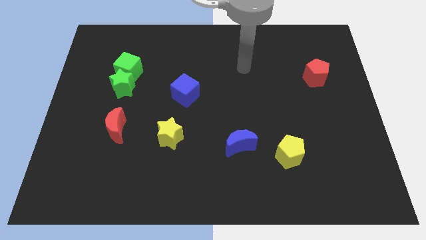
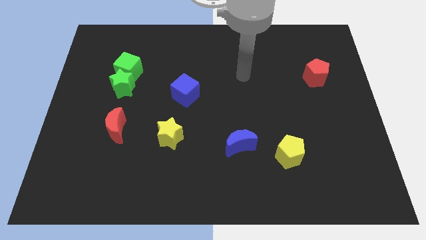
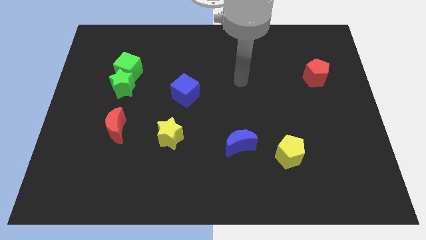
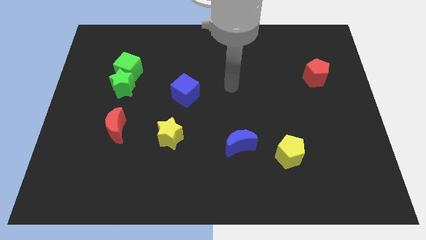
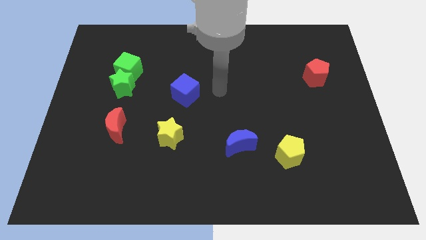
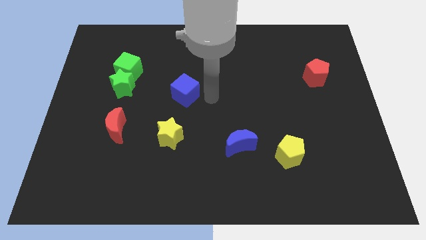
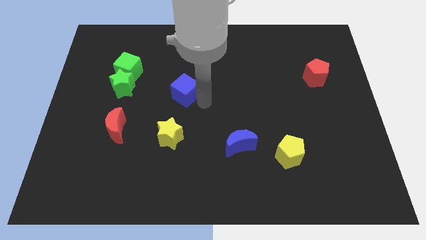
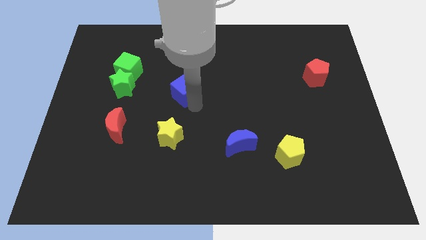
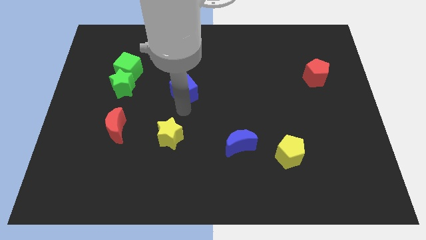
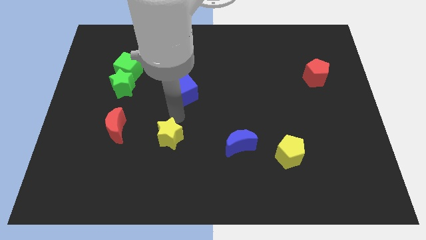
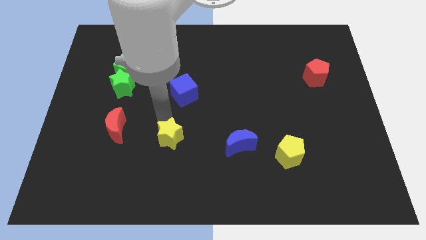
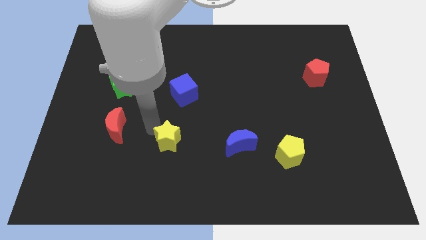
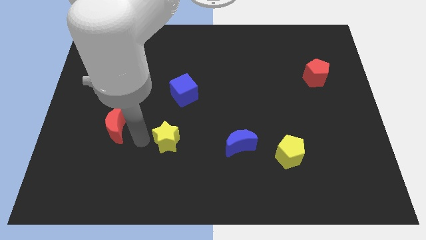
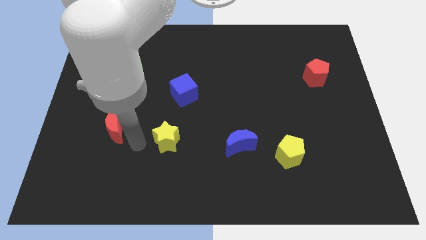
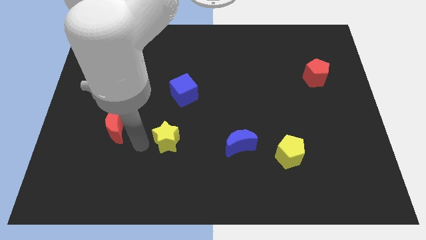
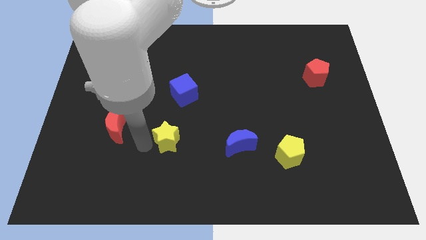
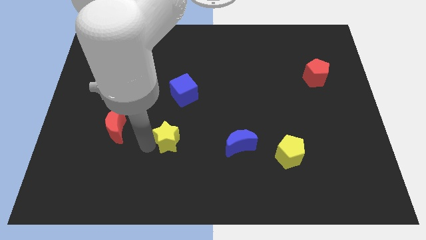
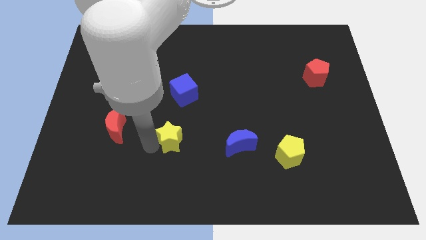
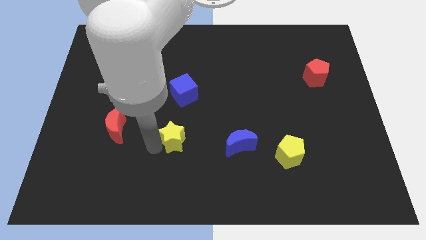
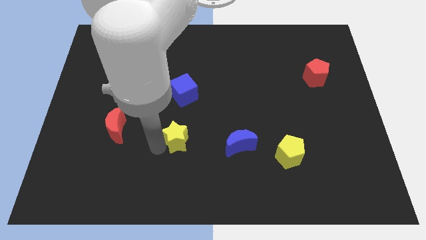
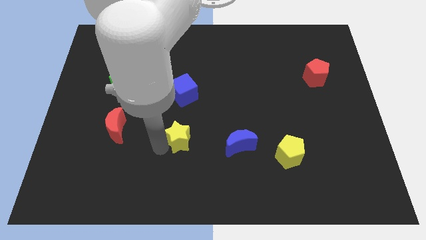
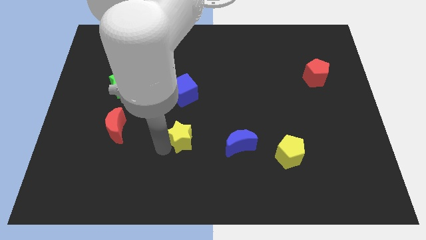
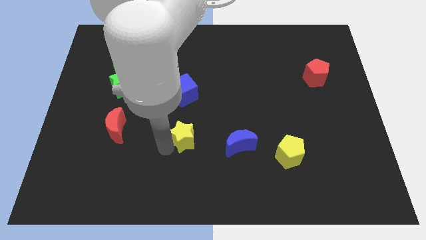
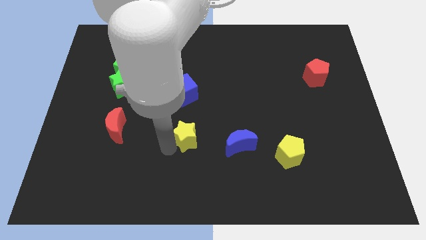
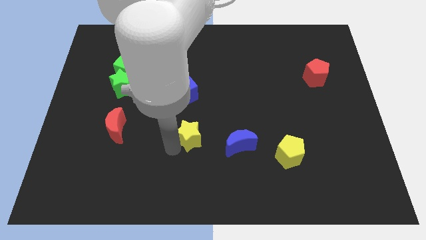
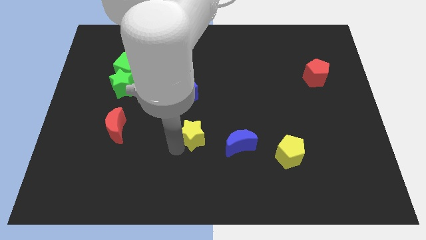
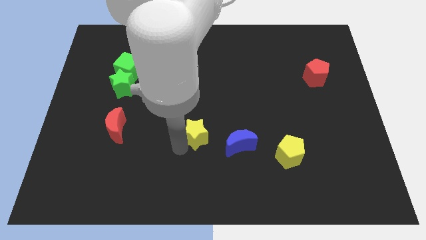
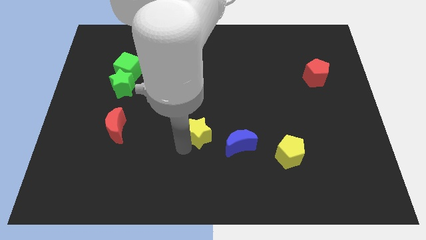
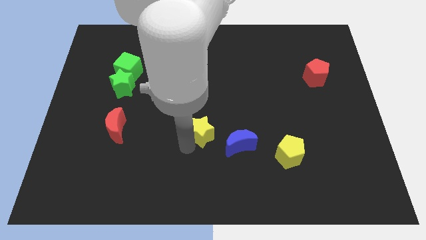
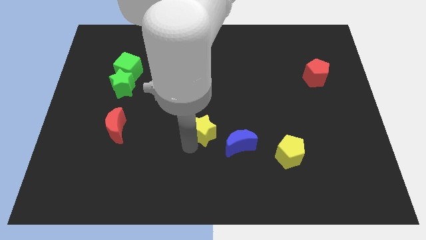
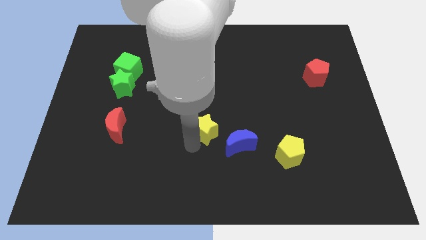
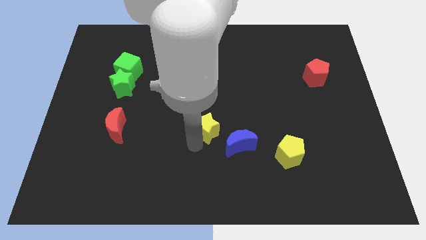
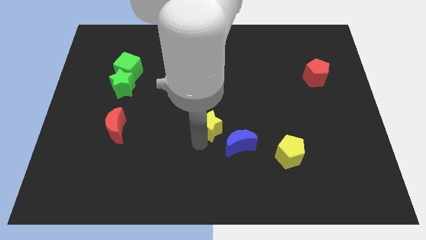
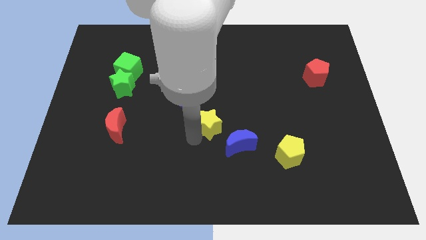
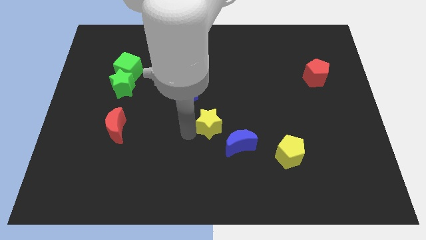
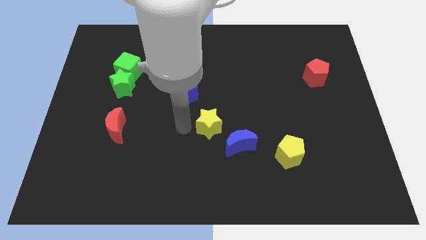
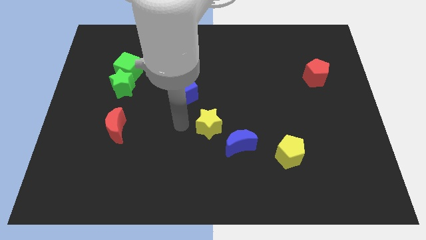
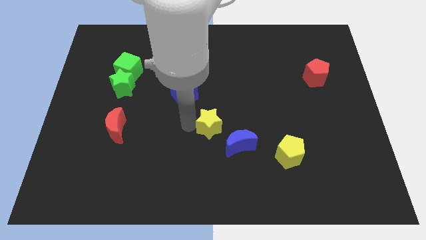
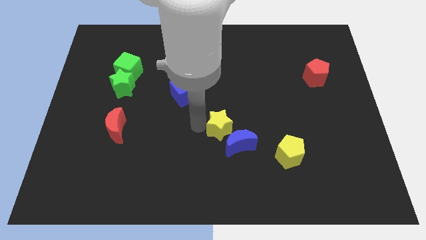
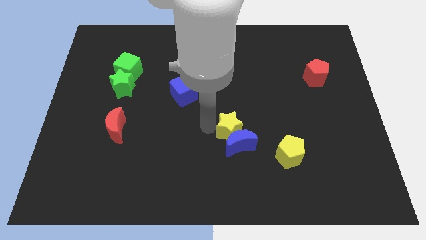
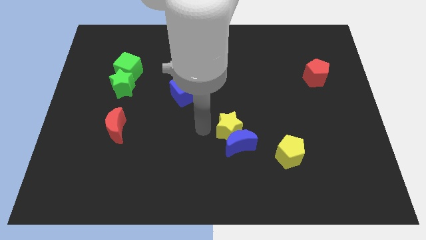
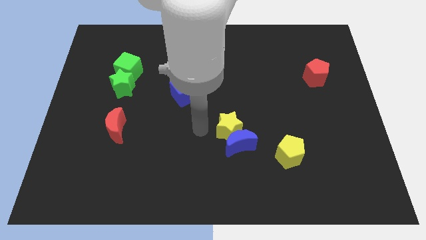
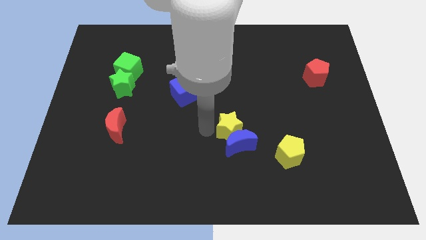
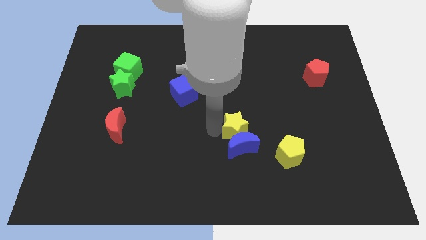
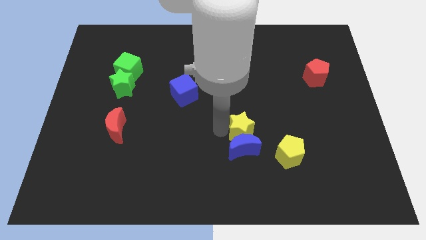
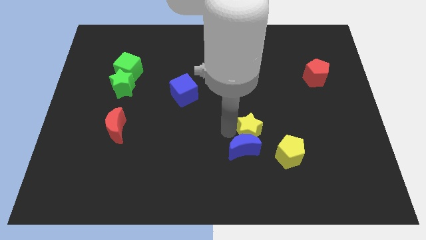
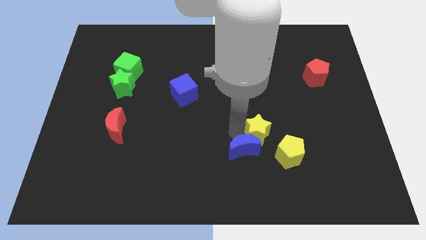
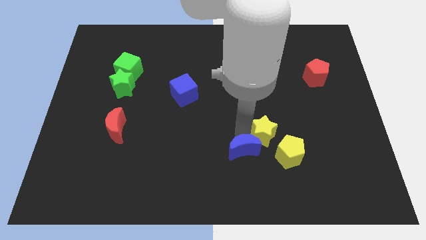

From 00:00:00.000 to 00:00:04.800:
move the yellow star to the right

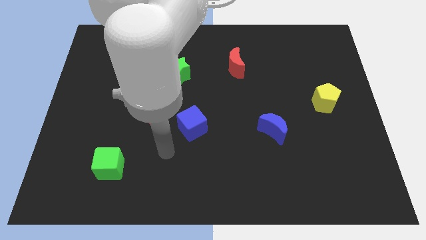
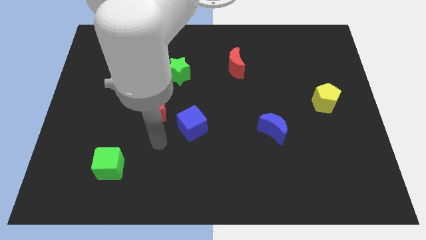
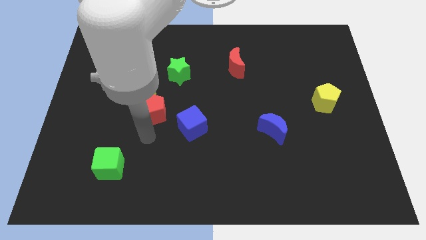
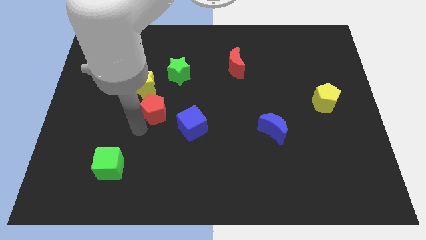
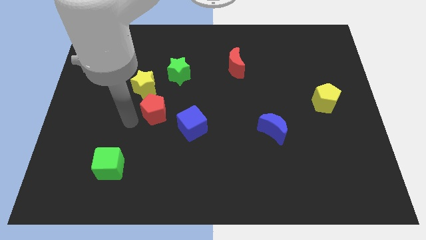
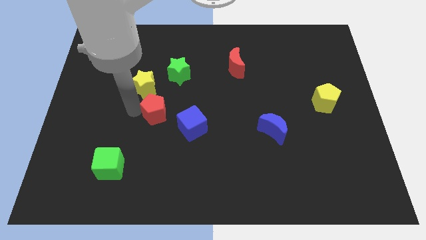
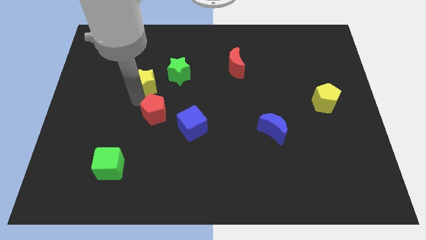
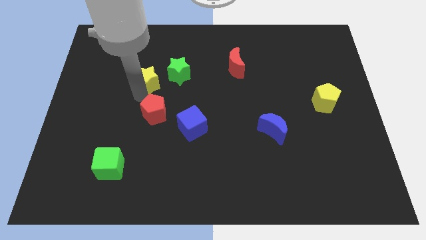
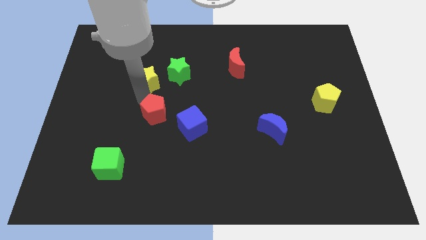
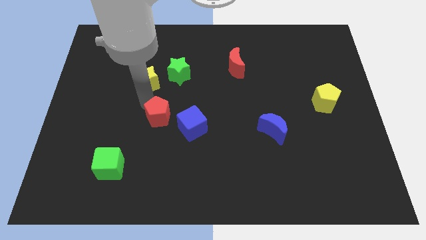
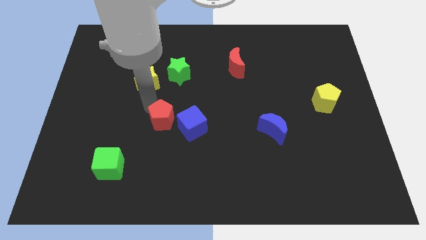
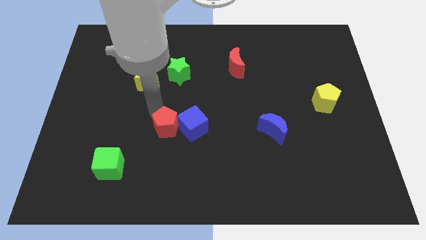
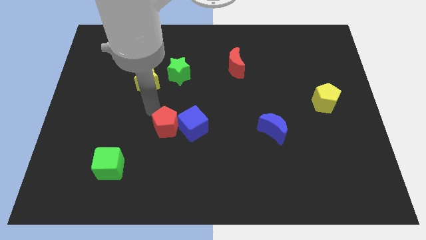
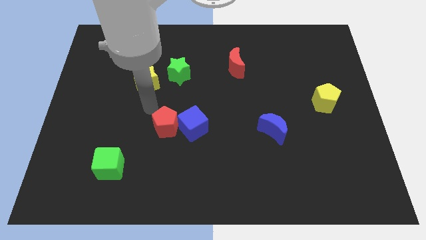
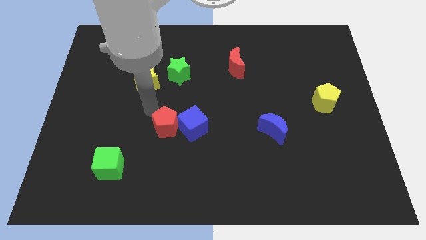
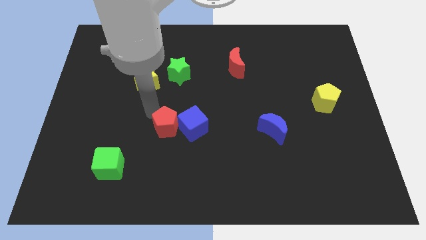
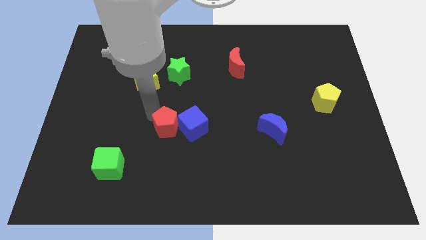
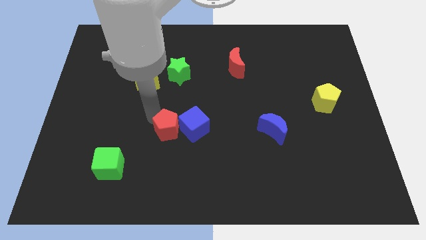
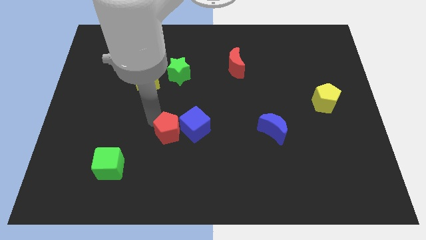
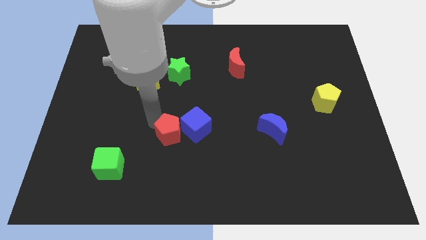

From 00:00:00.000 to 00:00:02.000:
slightly move the red pentagon downwards and then right

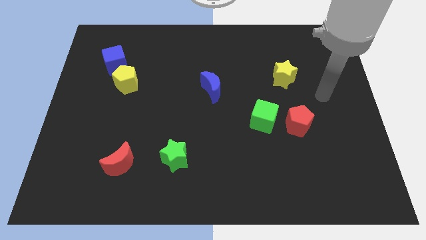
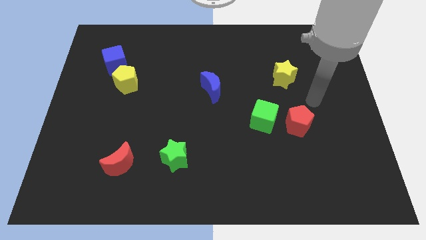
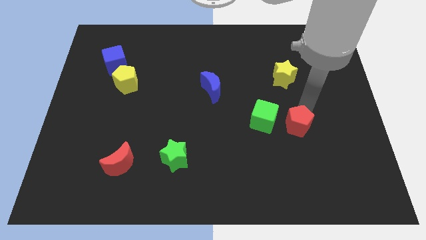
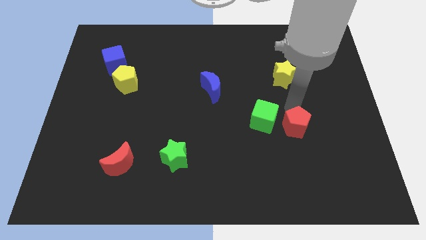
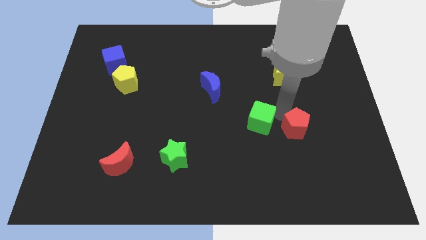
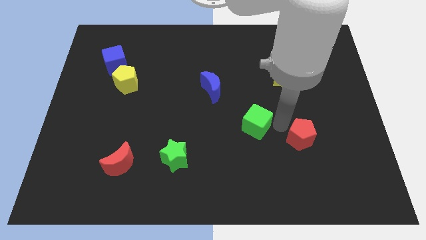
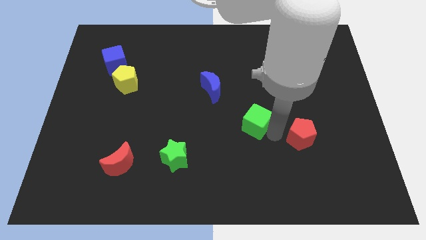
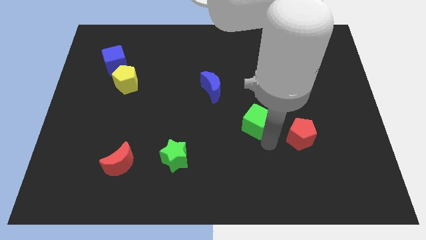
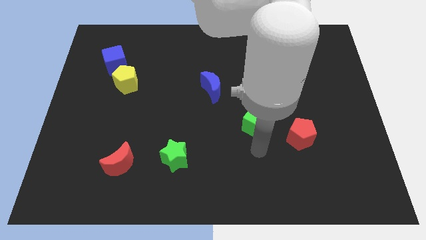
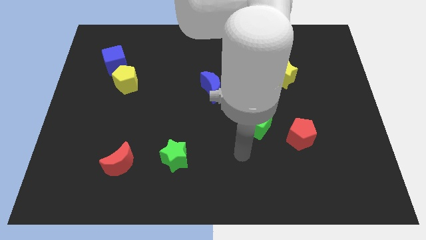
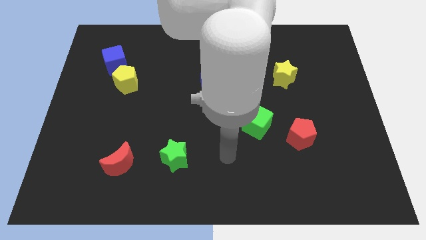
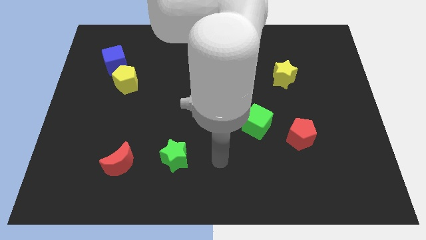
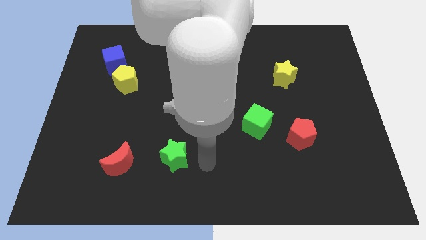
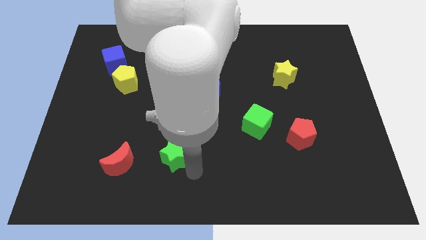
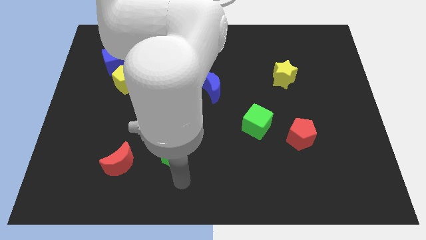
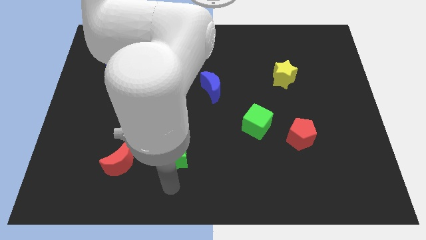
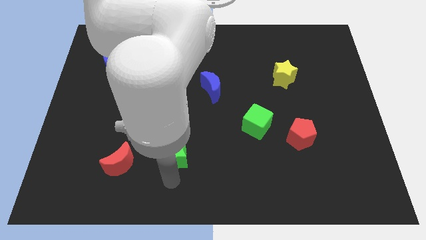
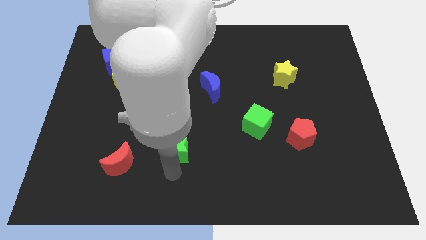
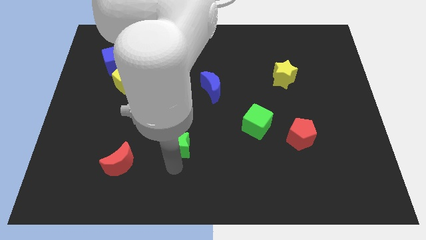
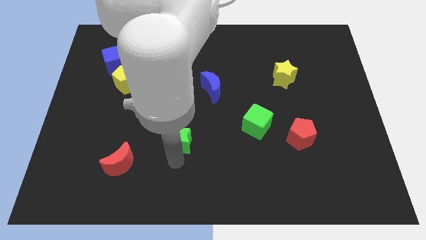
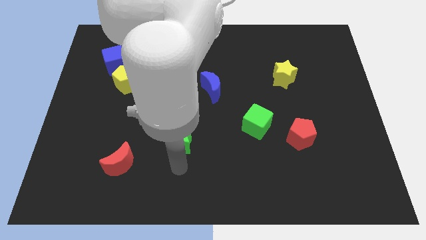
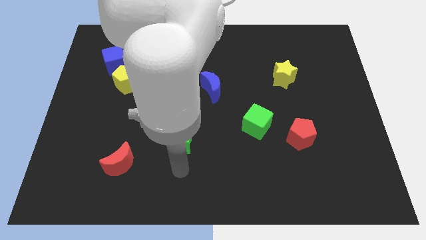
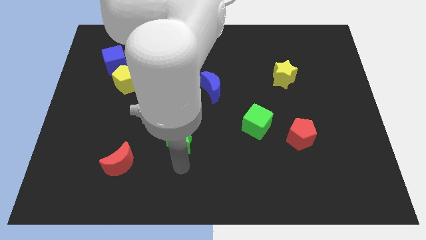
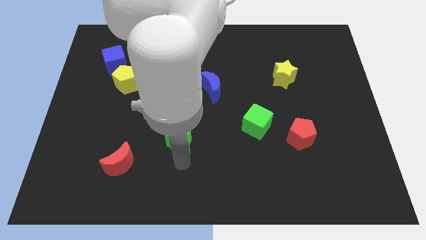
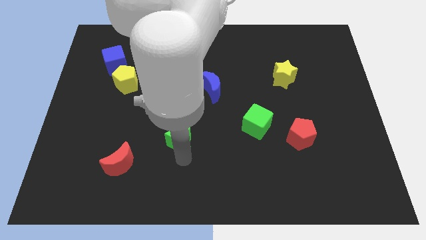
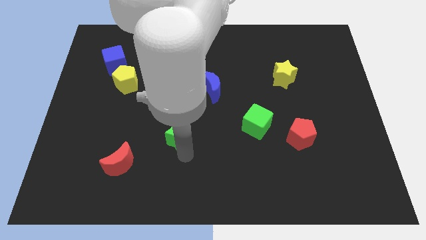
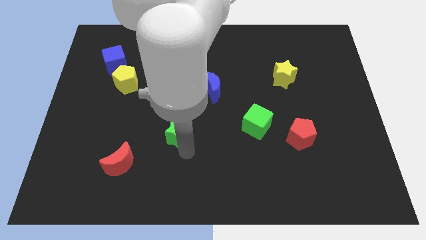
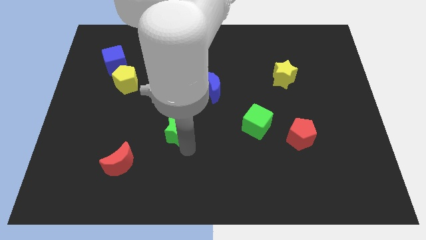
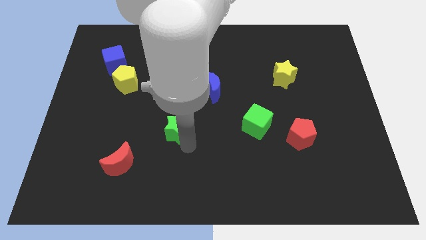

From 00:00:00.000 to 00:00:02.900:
slightly slide the green star up
